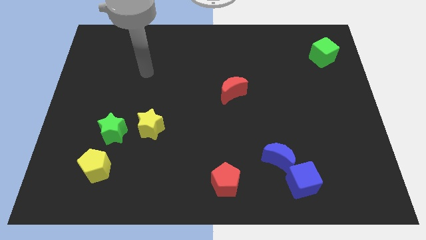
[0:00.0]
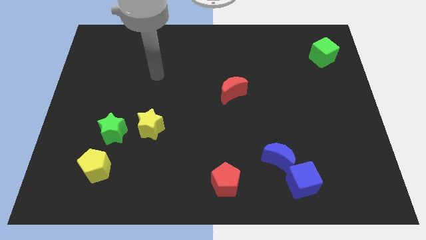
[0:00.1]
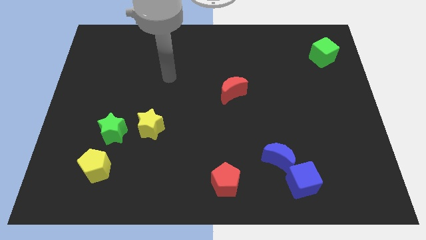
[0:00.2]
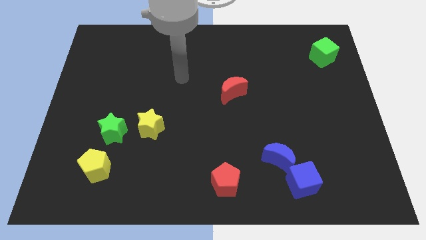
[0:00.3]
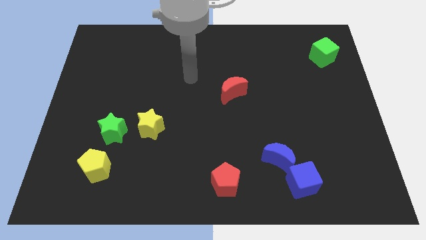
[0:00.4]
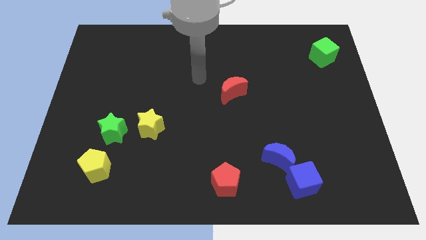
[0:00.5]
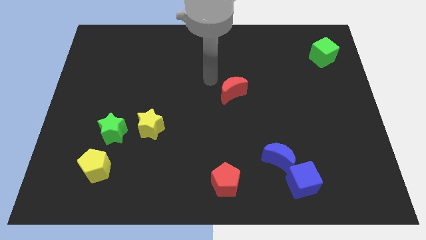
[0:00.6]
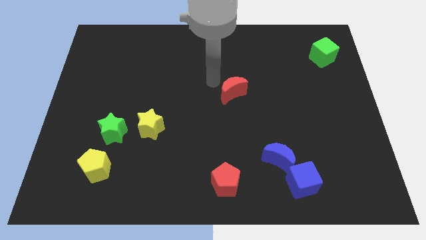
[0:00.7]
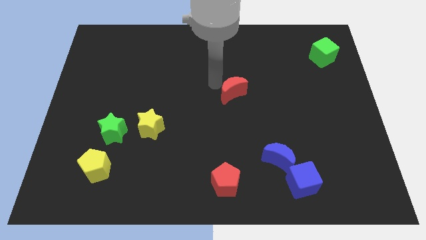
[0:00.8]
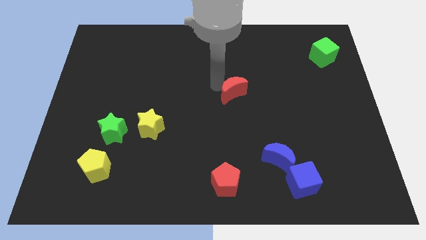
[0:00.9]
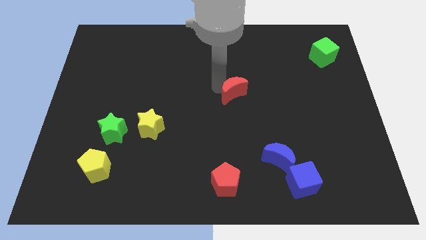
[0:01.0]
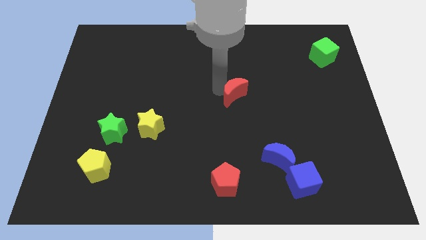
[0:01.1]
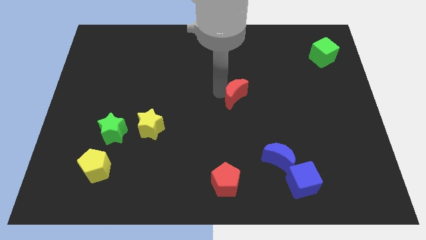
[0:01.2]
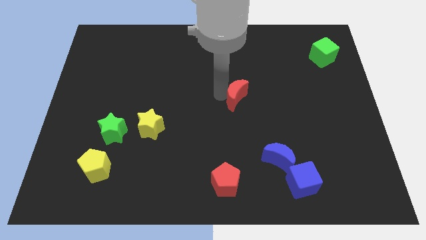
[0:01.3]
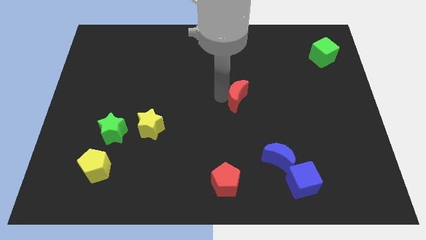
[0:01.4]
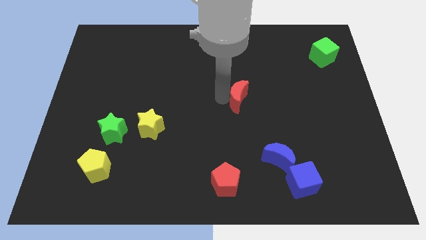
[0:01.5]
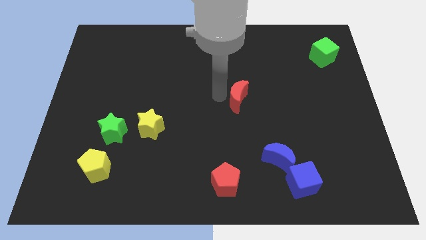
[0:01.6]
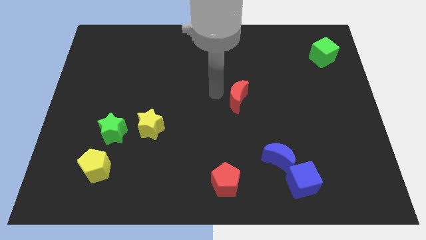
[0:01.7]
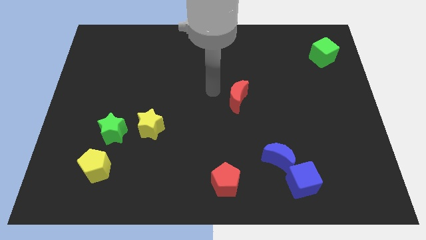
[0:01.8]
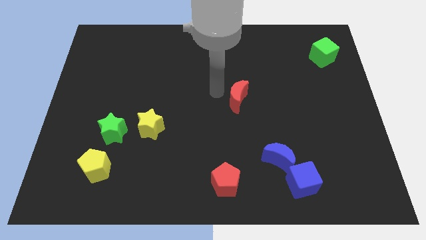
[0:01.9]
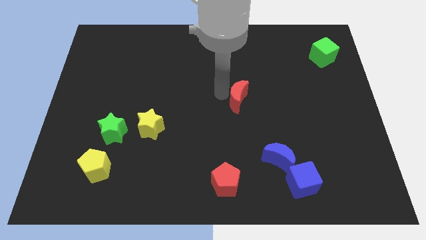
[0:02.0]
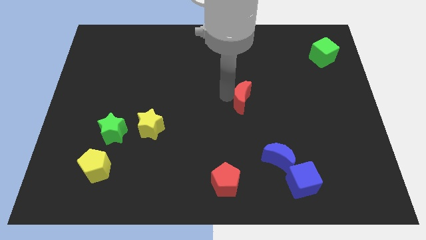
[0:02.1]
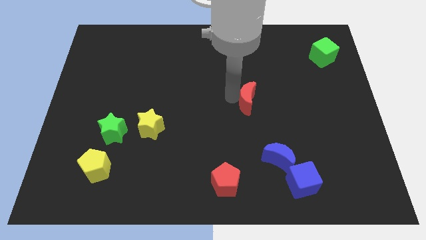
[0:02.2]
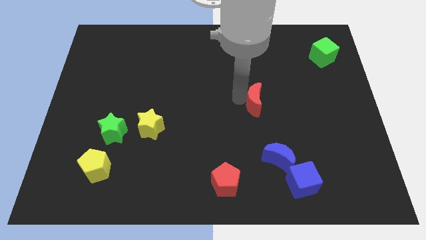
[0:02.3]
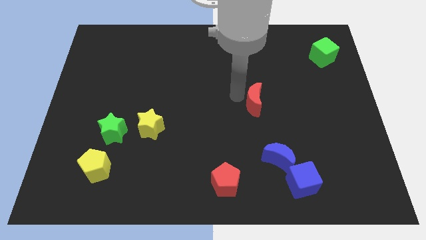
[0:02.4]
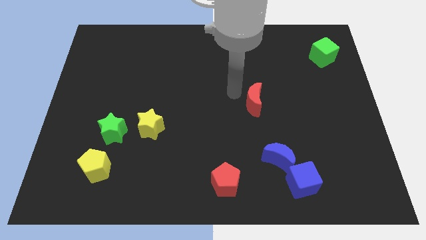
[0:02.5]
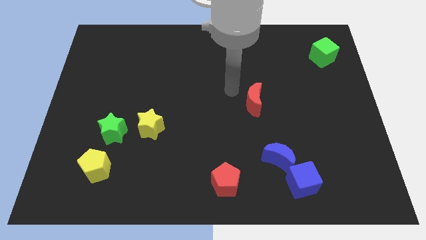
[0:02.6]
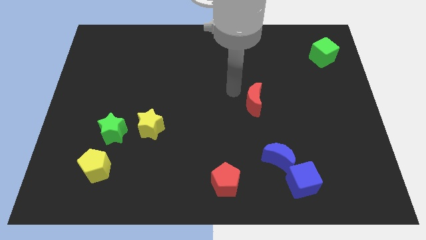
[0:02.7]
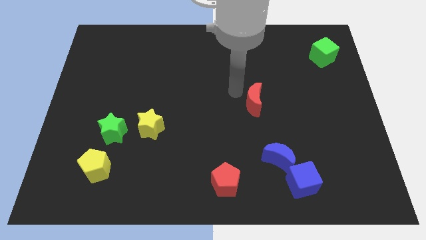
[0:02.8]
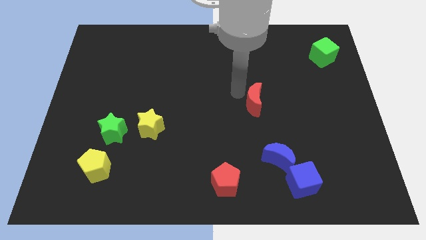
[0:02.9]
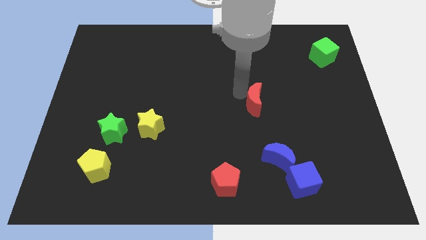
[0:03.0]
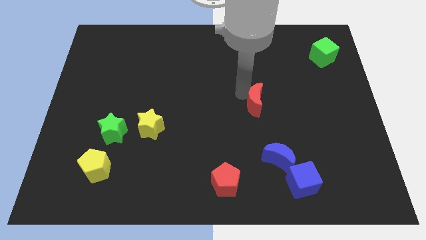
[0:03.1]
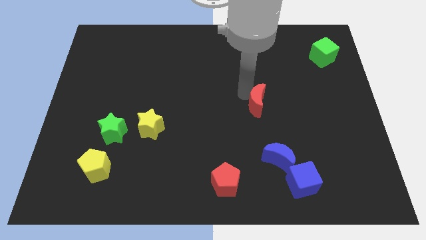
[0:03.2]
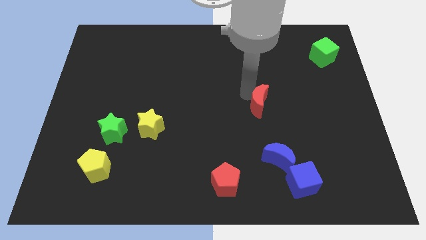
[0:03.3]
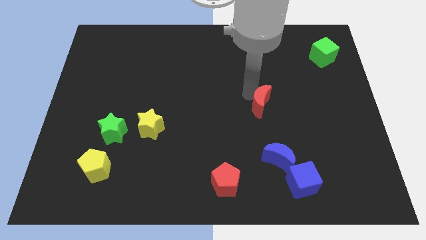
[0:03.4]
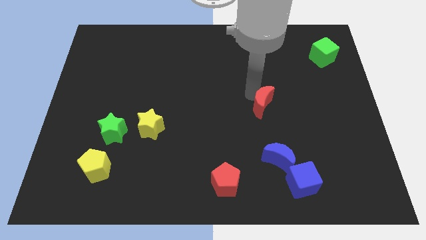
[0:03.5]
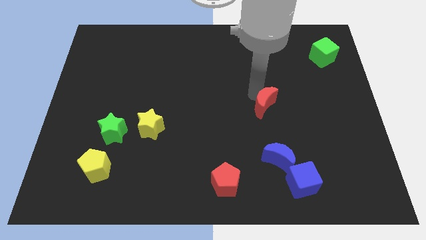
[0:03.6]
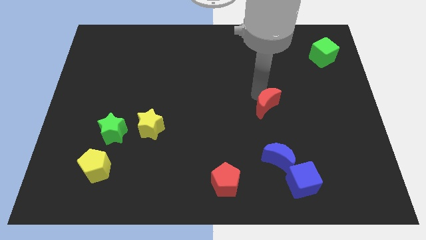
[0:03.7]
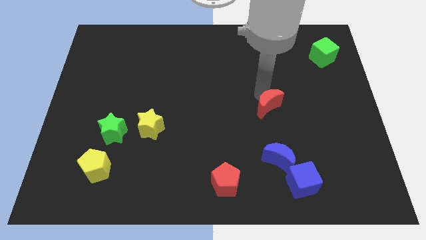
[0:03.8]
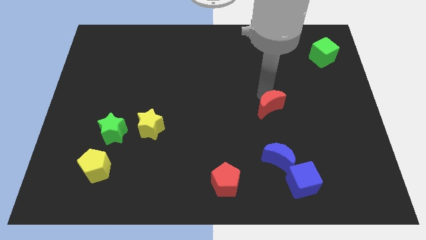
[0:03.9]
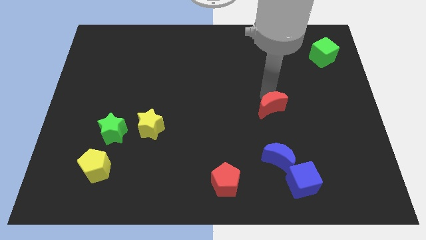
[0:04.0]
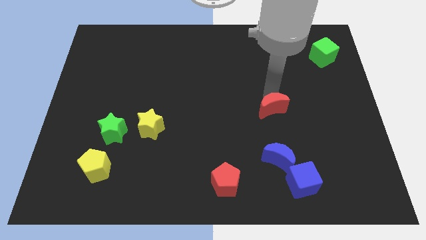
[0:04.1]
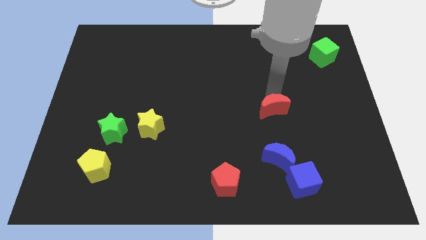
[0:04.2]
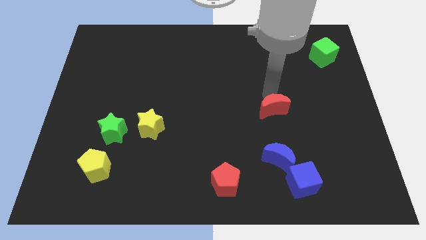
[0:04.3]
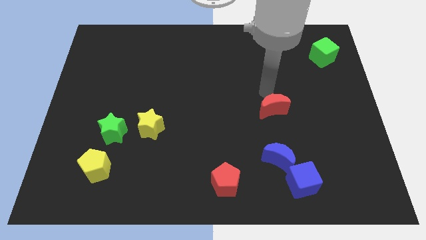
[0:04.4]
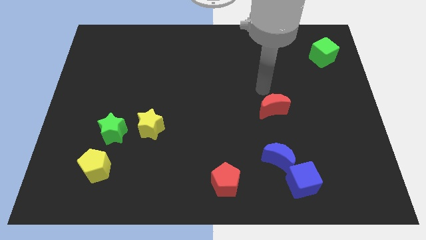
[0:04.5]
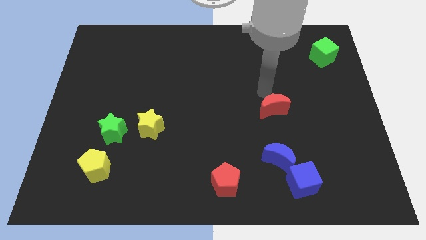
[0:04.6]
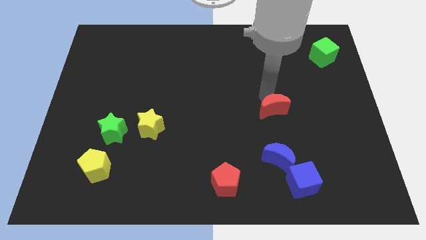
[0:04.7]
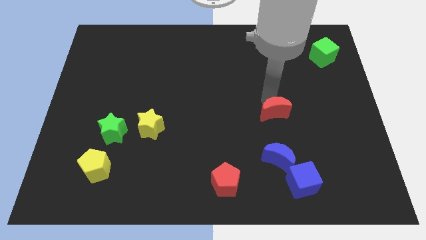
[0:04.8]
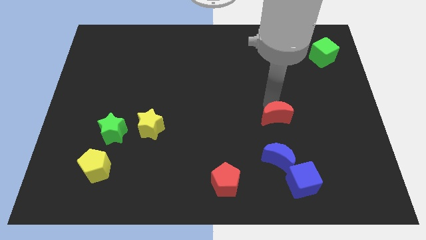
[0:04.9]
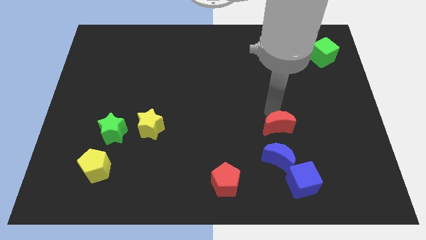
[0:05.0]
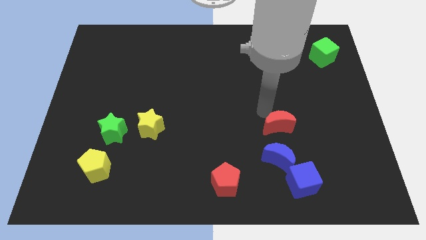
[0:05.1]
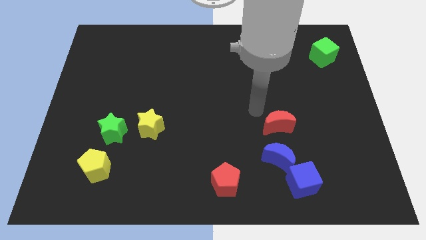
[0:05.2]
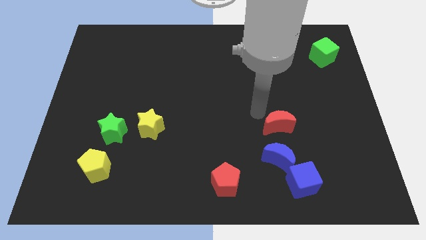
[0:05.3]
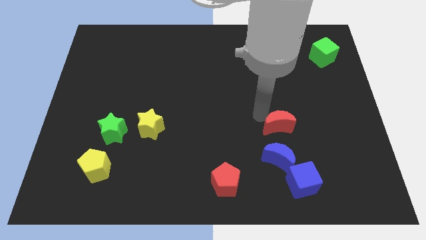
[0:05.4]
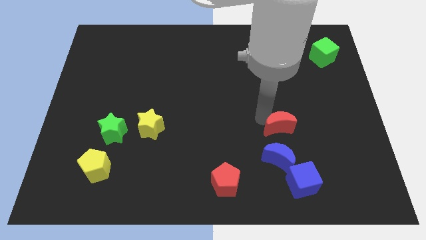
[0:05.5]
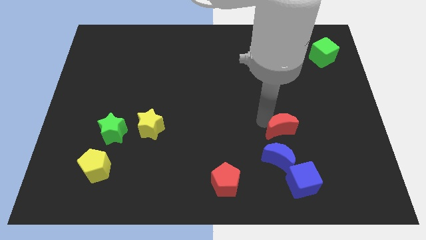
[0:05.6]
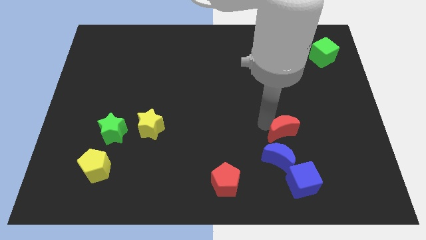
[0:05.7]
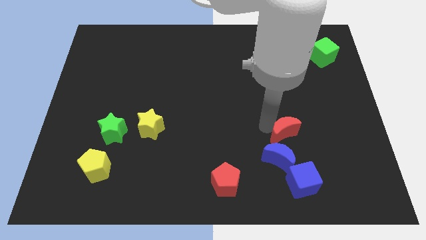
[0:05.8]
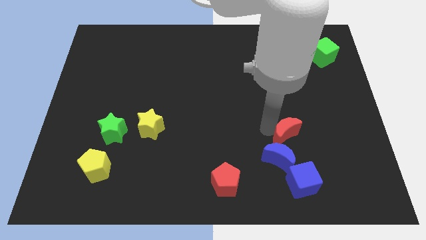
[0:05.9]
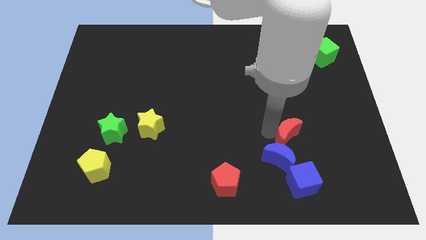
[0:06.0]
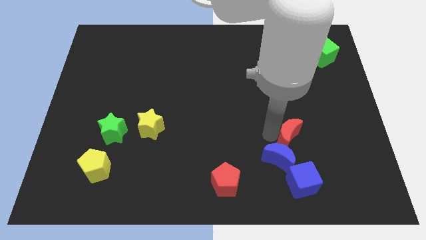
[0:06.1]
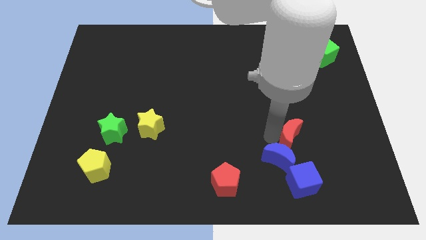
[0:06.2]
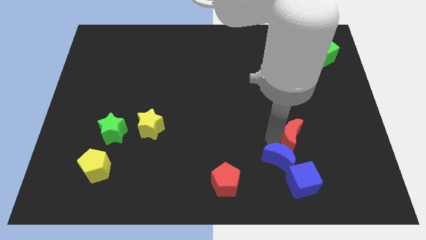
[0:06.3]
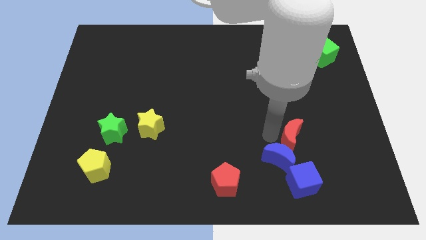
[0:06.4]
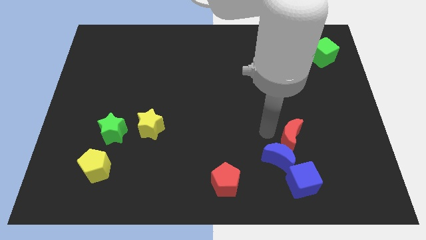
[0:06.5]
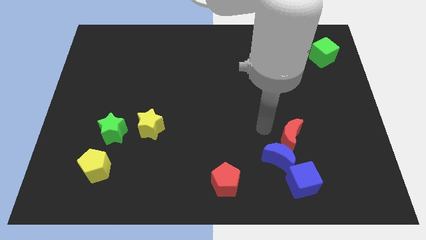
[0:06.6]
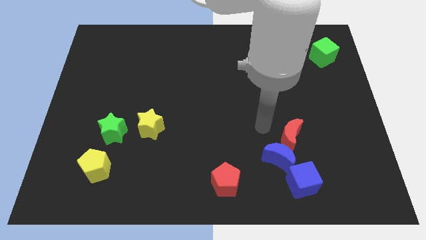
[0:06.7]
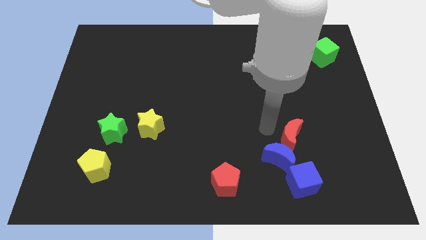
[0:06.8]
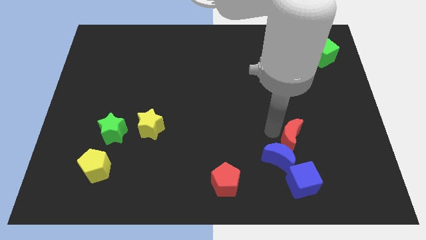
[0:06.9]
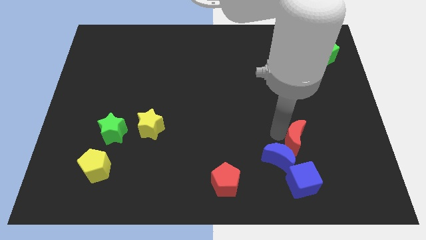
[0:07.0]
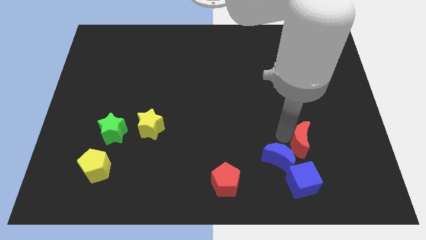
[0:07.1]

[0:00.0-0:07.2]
slide the red moon downwards and then to the right

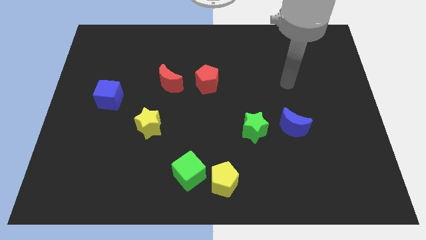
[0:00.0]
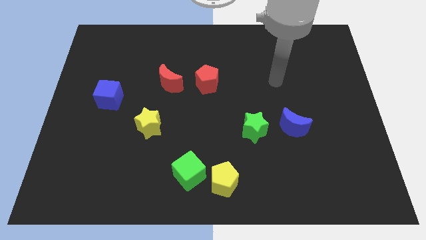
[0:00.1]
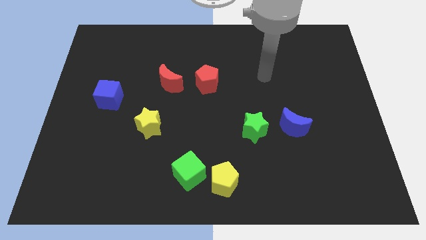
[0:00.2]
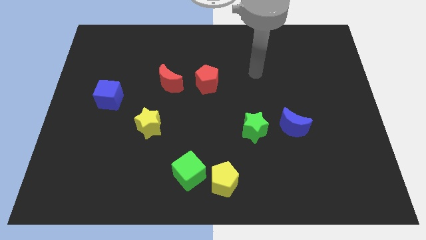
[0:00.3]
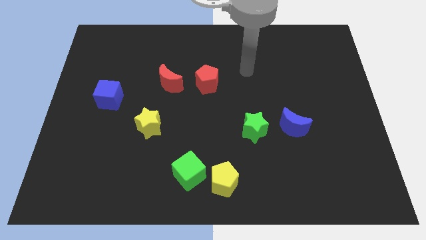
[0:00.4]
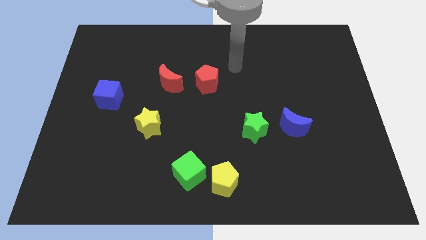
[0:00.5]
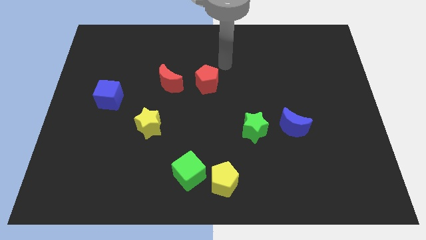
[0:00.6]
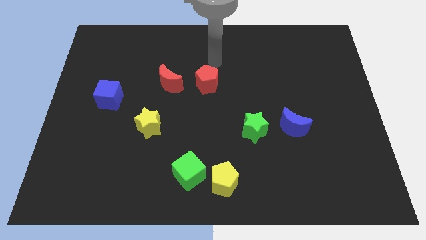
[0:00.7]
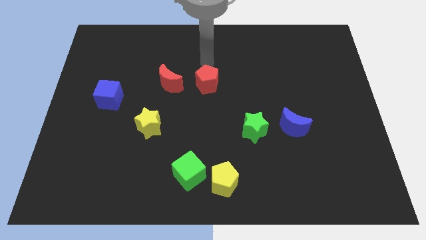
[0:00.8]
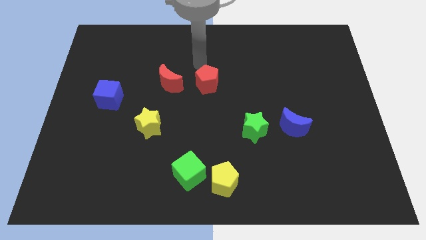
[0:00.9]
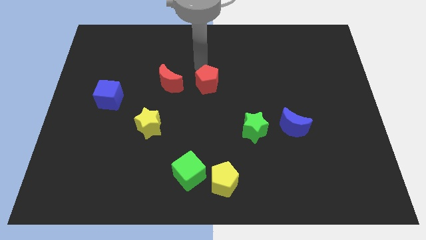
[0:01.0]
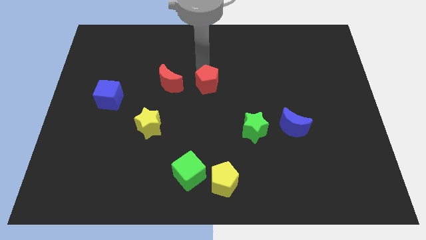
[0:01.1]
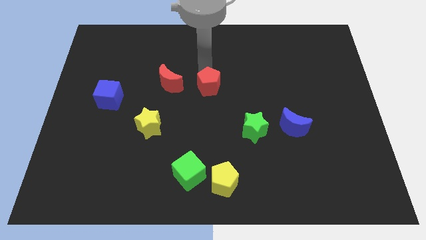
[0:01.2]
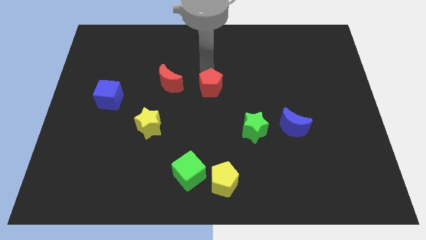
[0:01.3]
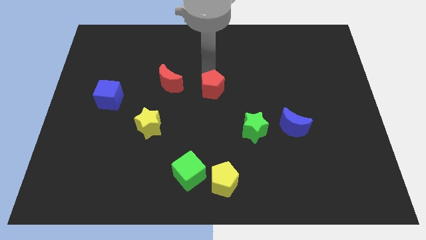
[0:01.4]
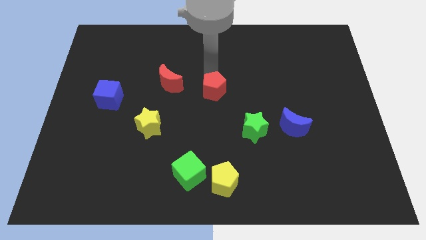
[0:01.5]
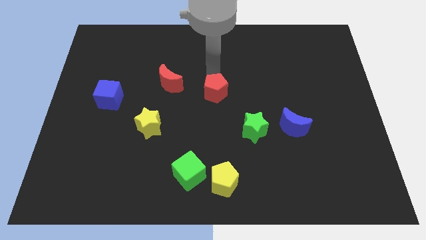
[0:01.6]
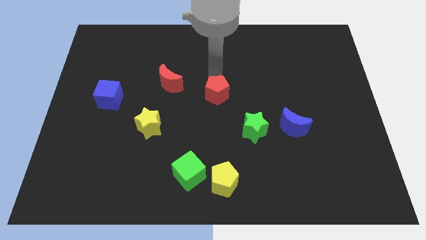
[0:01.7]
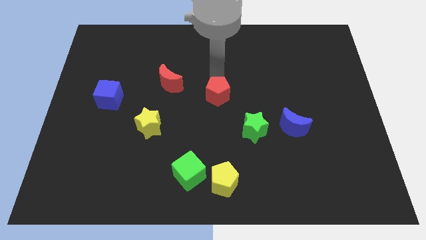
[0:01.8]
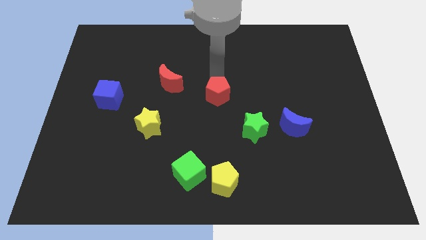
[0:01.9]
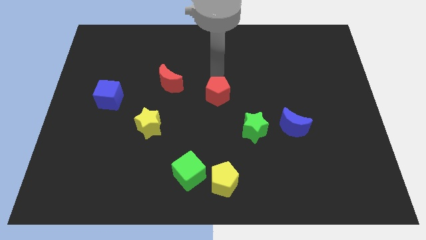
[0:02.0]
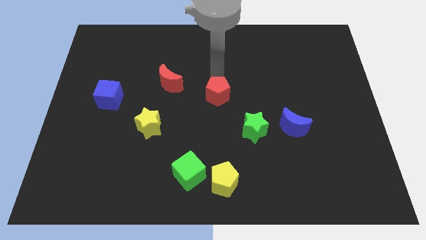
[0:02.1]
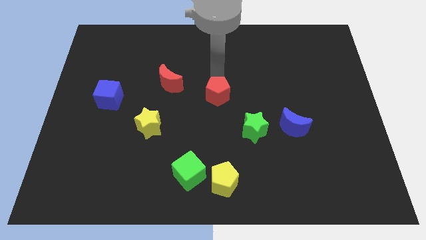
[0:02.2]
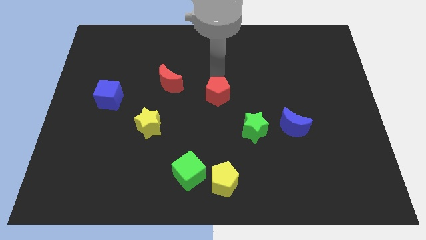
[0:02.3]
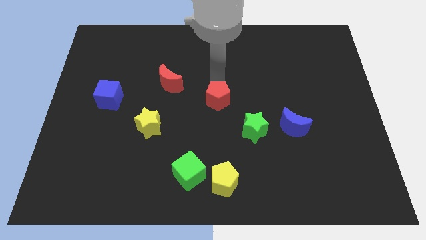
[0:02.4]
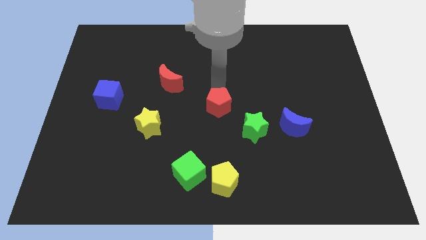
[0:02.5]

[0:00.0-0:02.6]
slightly move the red pentagon down
